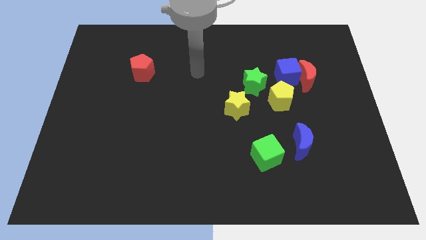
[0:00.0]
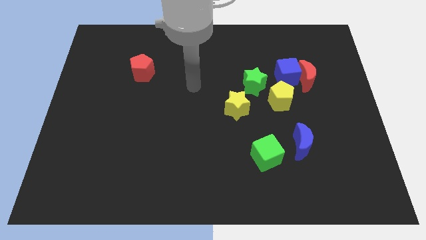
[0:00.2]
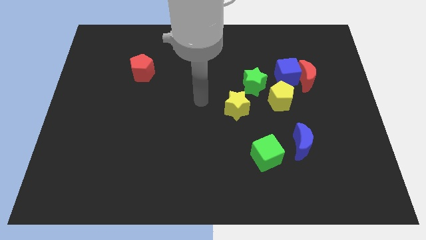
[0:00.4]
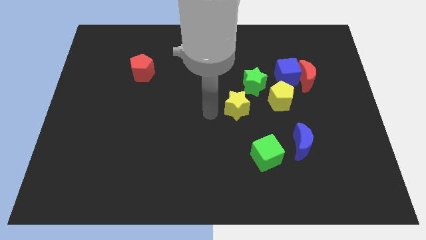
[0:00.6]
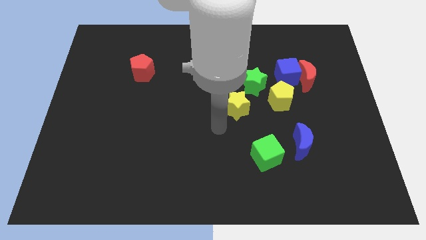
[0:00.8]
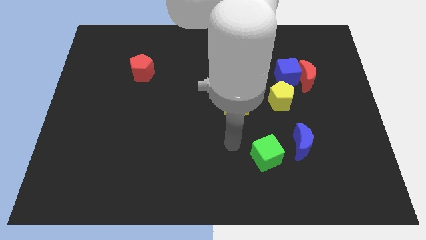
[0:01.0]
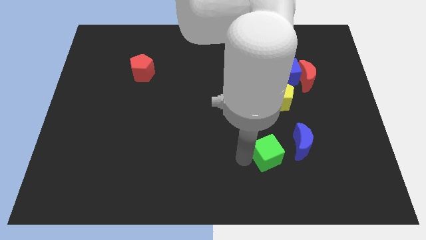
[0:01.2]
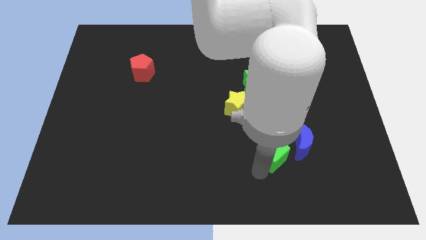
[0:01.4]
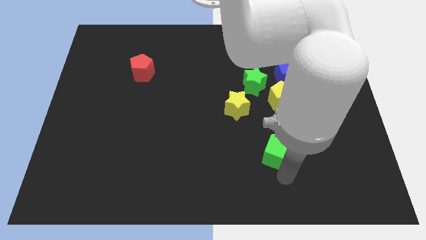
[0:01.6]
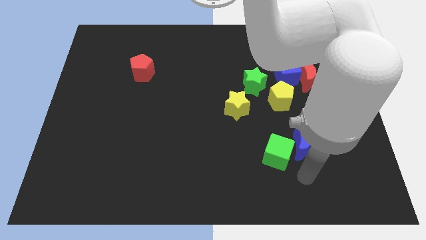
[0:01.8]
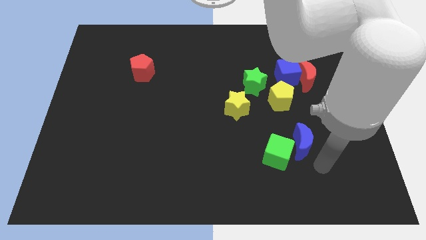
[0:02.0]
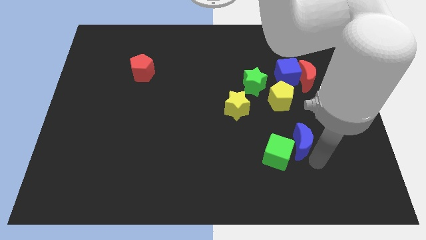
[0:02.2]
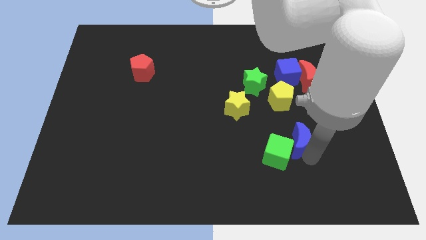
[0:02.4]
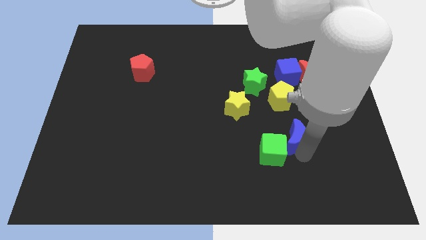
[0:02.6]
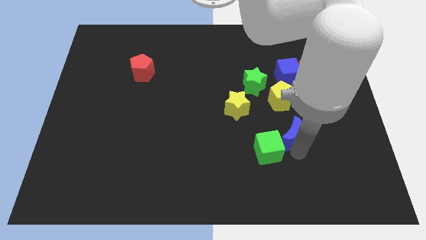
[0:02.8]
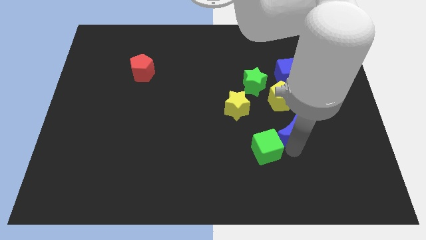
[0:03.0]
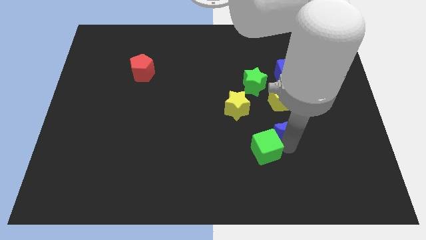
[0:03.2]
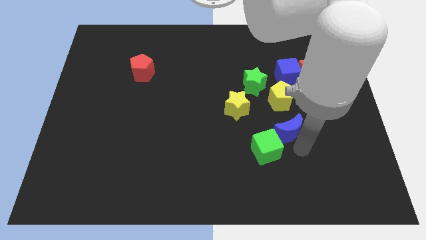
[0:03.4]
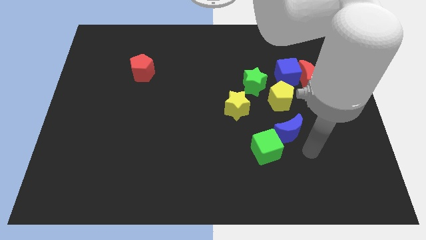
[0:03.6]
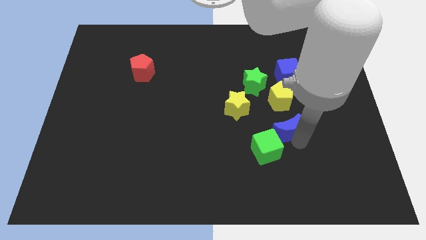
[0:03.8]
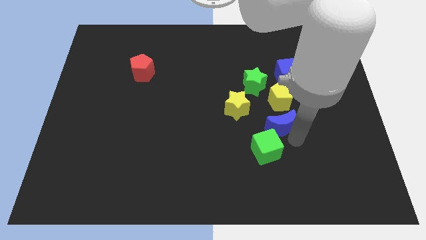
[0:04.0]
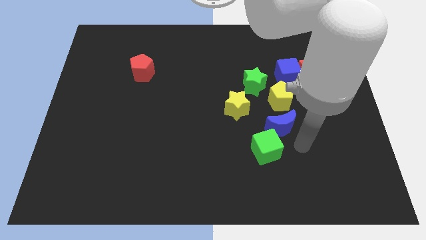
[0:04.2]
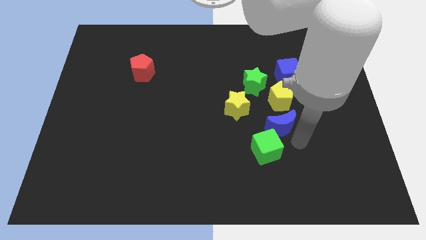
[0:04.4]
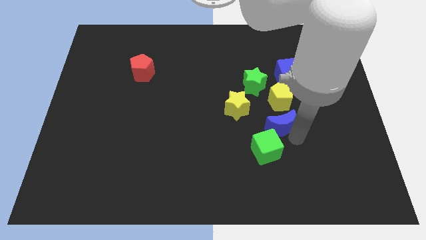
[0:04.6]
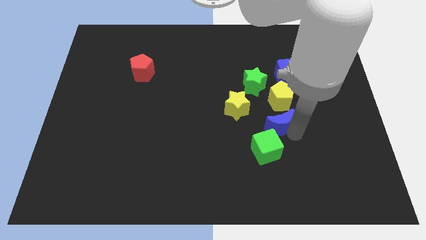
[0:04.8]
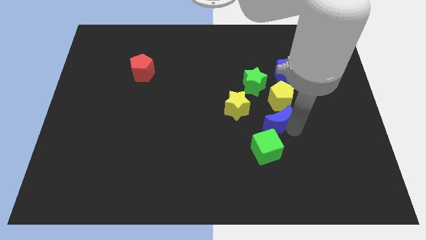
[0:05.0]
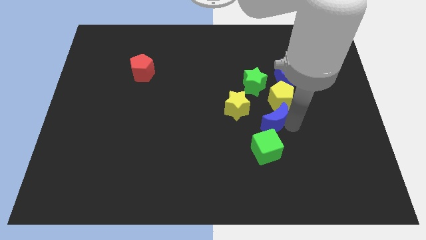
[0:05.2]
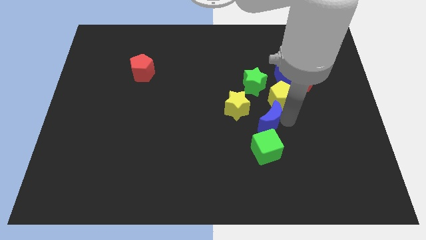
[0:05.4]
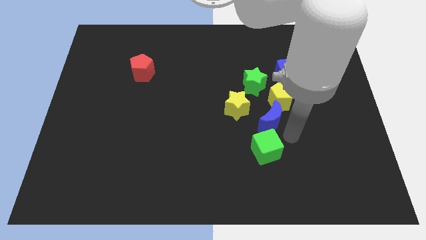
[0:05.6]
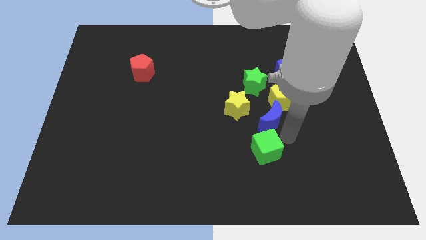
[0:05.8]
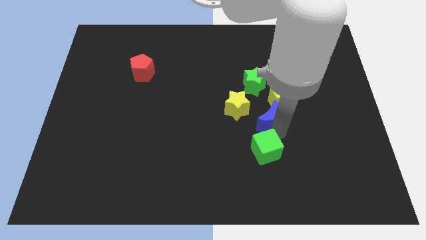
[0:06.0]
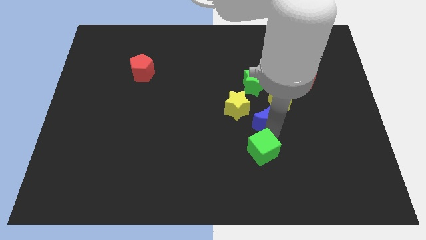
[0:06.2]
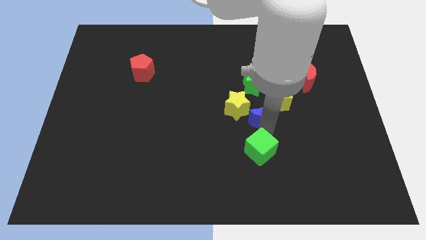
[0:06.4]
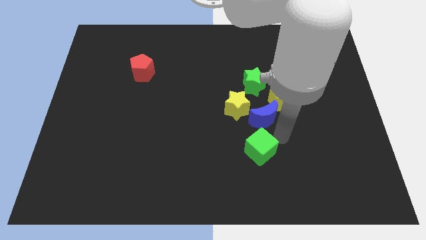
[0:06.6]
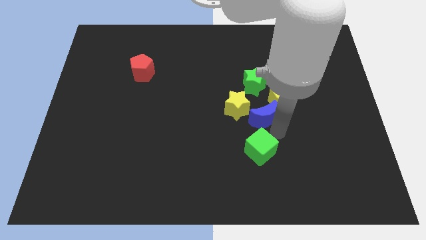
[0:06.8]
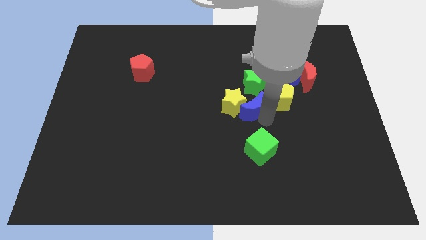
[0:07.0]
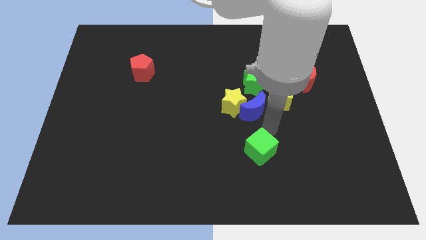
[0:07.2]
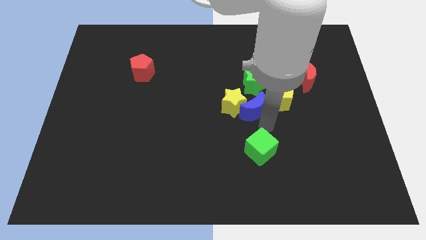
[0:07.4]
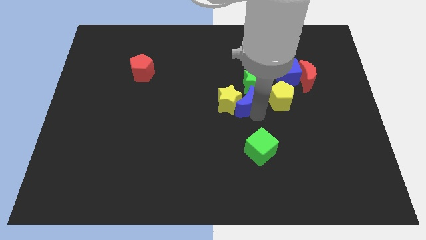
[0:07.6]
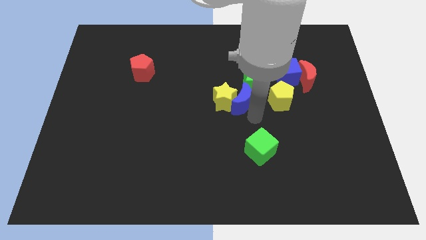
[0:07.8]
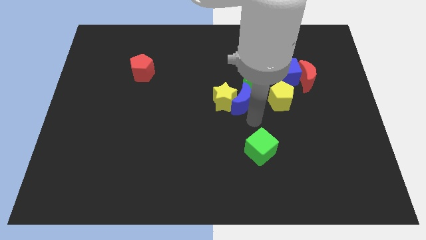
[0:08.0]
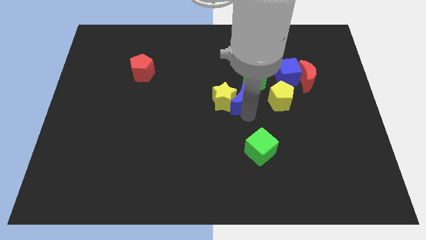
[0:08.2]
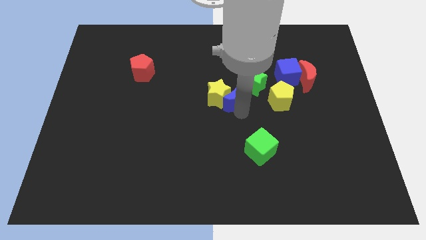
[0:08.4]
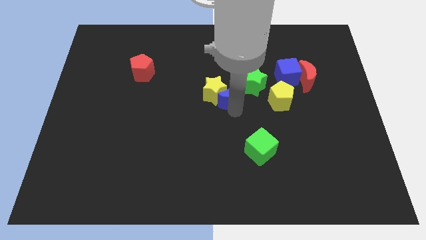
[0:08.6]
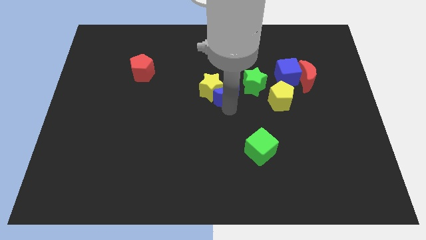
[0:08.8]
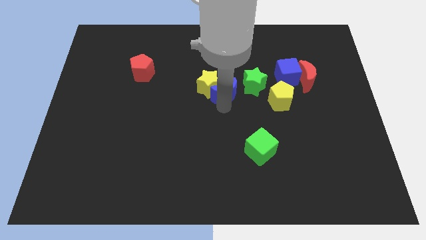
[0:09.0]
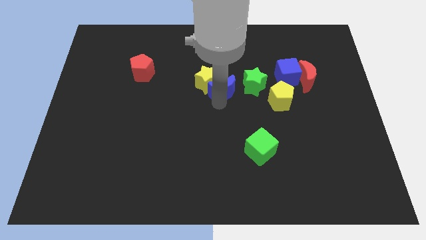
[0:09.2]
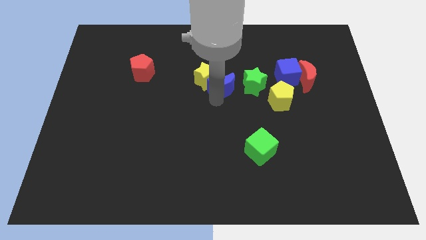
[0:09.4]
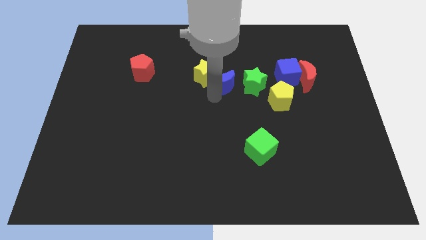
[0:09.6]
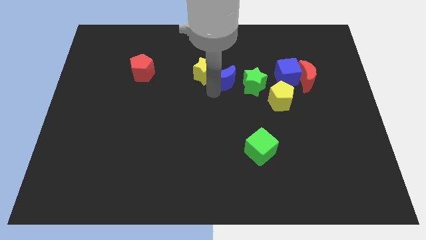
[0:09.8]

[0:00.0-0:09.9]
slide the blue moon to the top left side of the green star

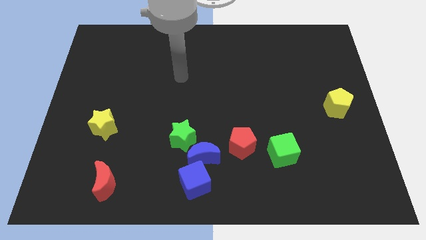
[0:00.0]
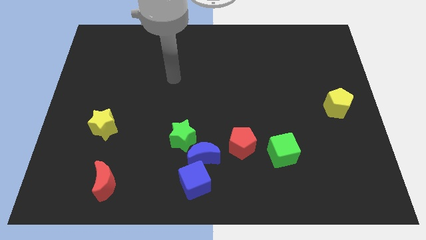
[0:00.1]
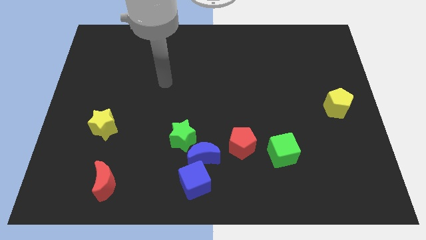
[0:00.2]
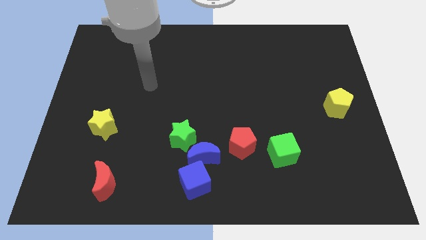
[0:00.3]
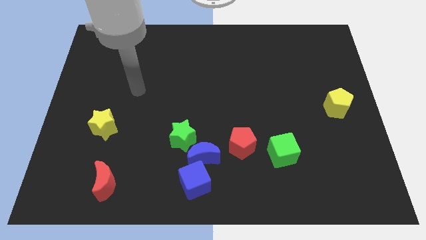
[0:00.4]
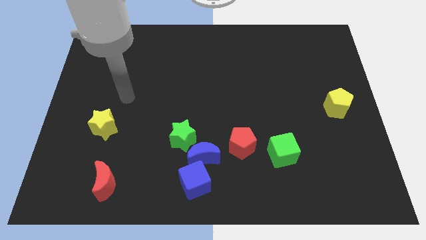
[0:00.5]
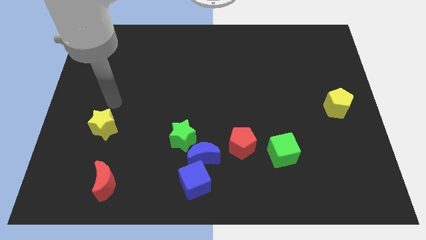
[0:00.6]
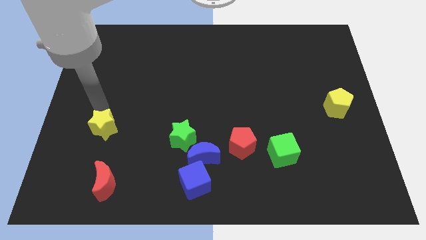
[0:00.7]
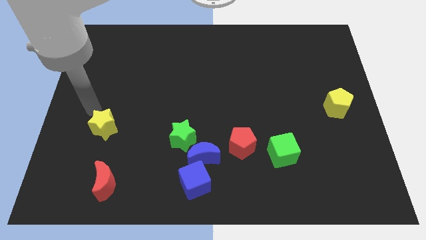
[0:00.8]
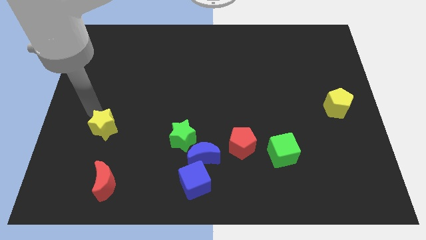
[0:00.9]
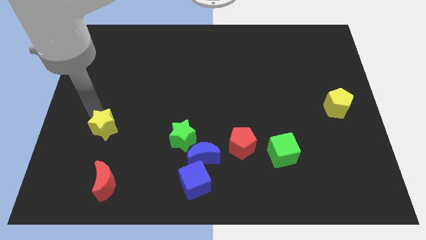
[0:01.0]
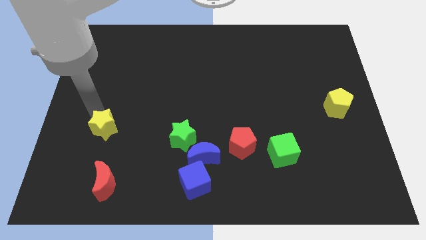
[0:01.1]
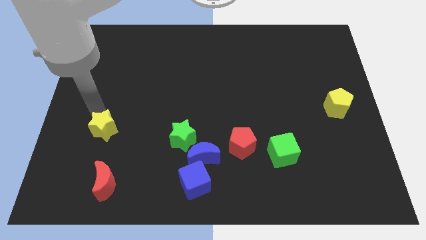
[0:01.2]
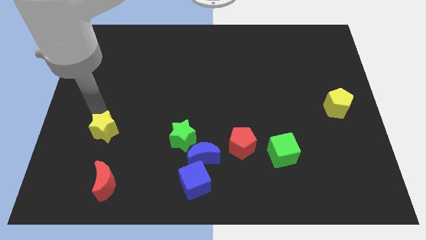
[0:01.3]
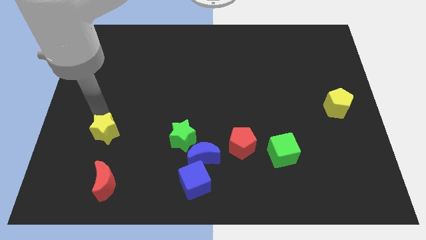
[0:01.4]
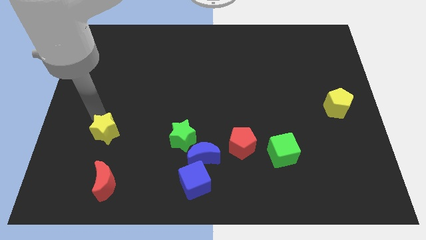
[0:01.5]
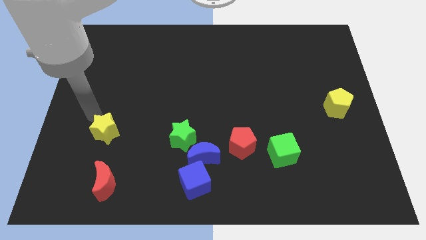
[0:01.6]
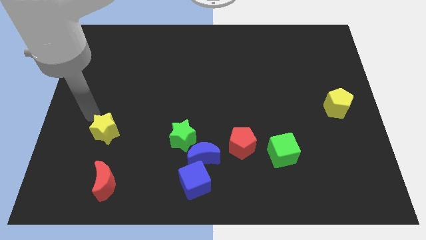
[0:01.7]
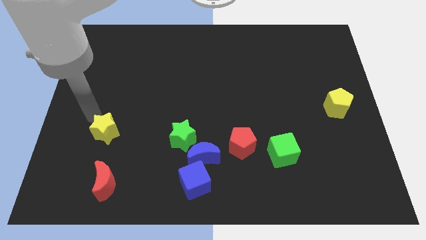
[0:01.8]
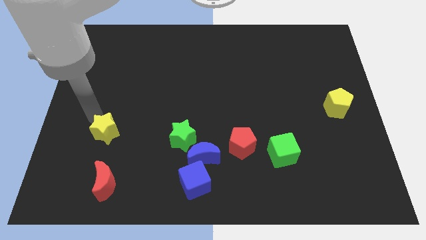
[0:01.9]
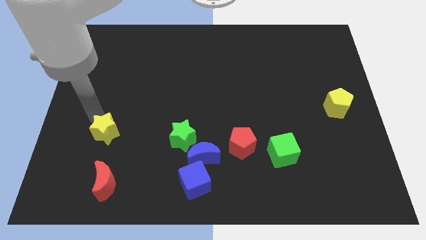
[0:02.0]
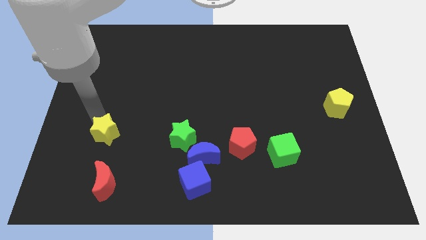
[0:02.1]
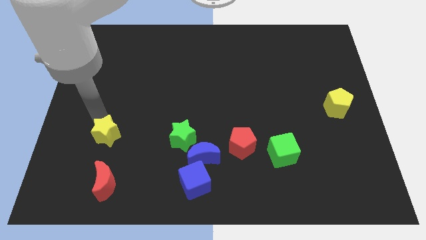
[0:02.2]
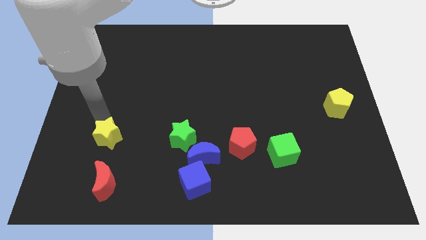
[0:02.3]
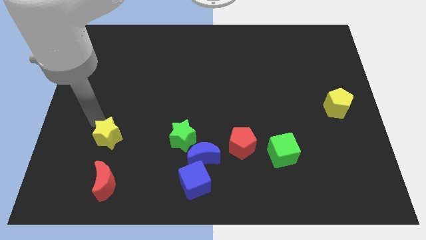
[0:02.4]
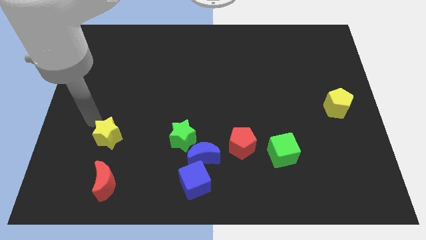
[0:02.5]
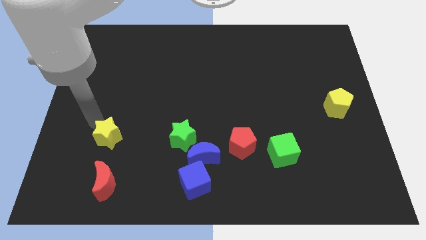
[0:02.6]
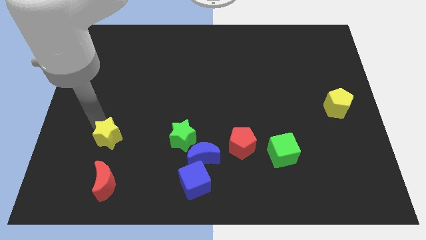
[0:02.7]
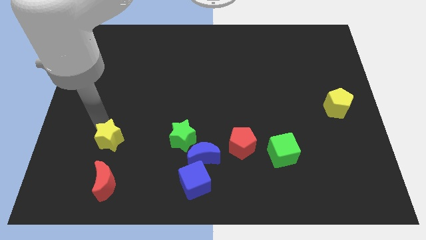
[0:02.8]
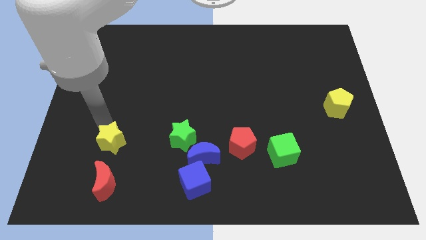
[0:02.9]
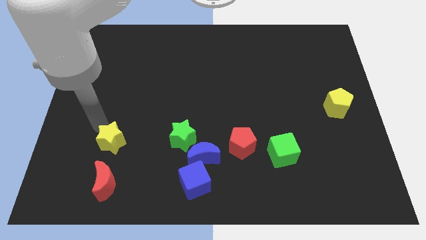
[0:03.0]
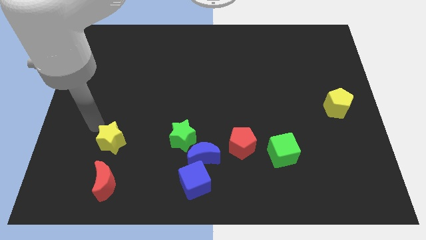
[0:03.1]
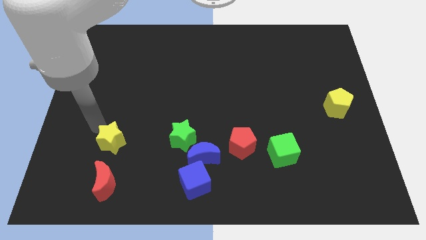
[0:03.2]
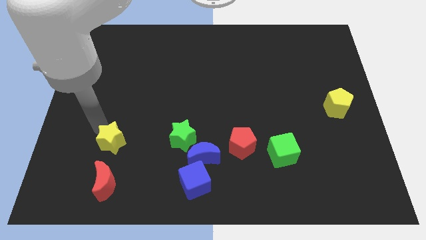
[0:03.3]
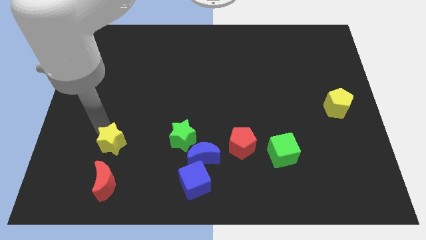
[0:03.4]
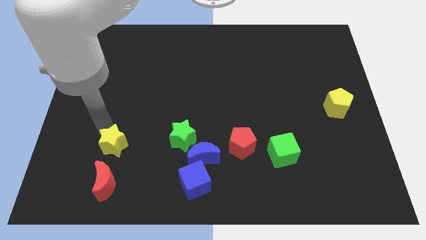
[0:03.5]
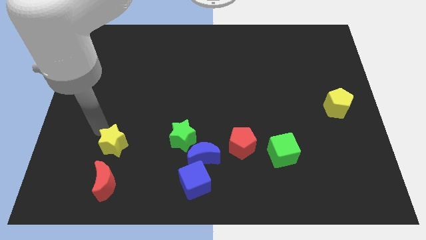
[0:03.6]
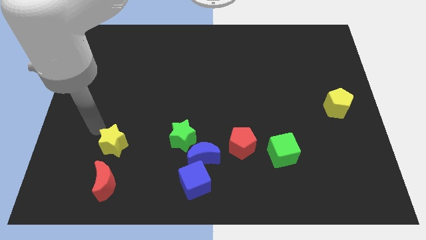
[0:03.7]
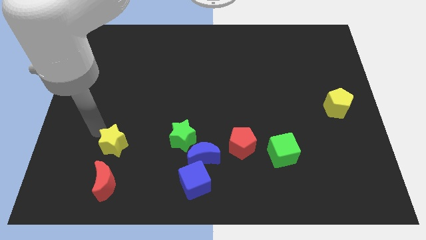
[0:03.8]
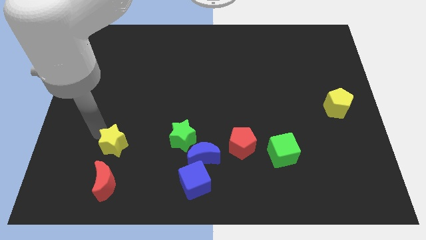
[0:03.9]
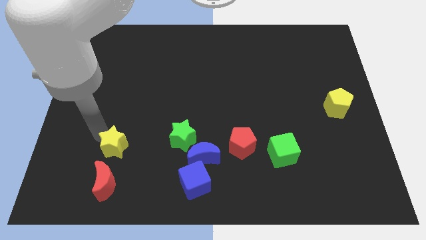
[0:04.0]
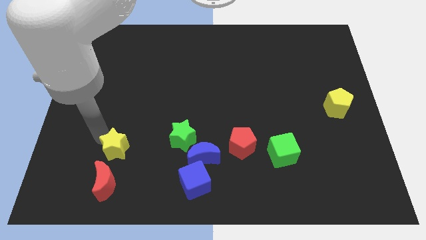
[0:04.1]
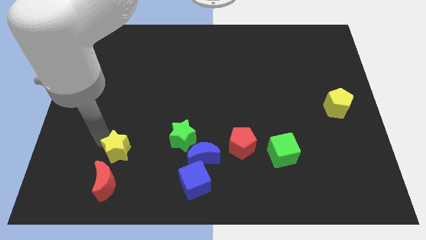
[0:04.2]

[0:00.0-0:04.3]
slide the yellow star diagonally up and to the right of the red moon
